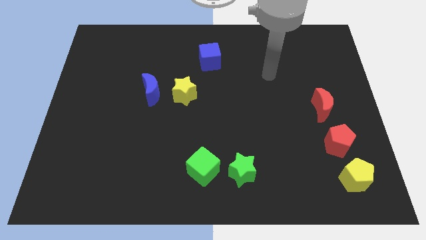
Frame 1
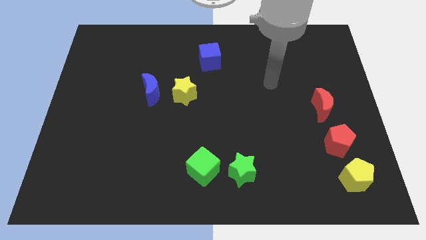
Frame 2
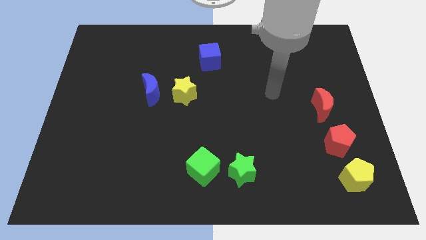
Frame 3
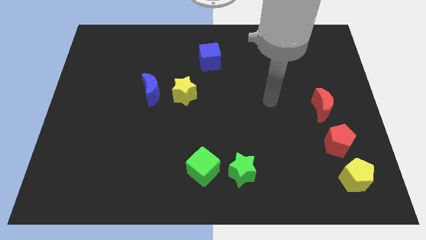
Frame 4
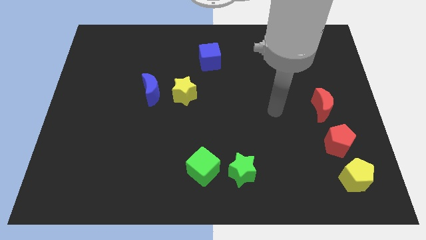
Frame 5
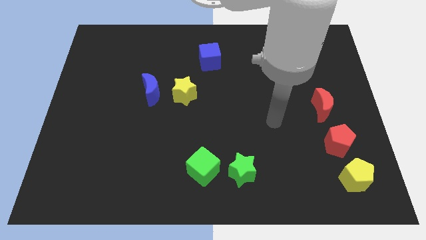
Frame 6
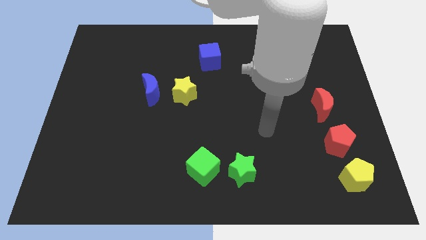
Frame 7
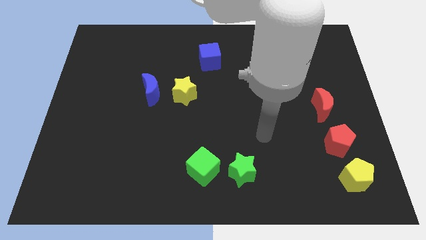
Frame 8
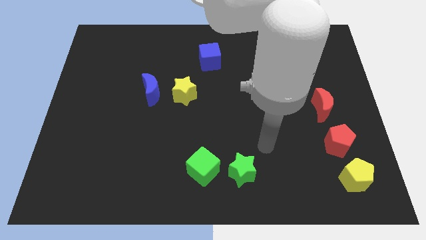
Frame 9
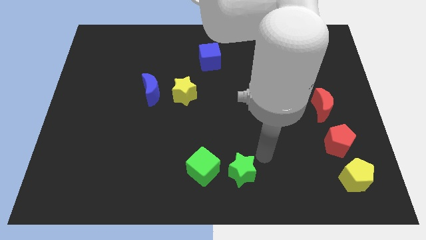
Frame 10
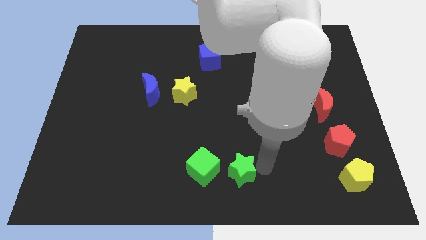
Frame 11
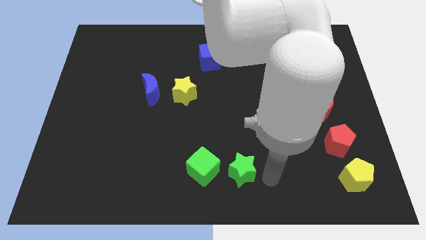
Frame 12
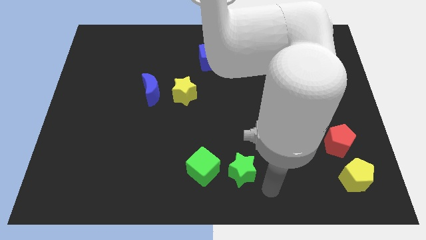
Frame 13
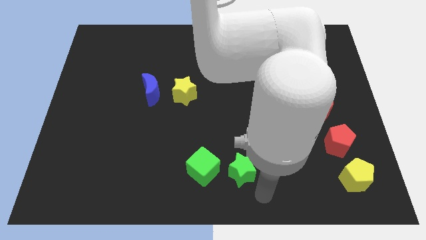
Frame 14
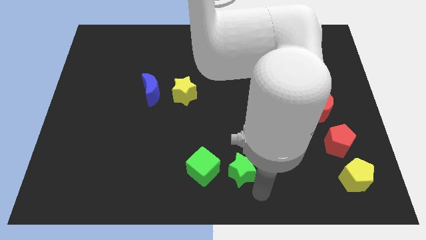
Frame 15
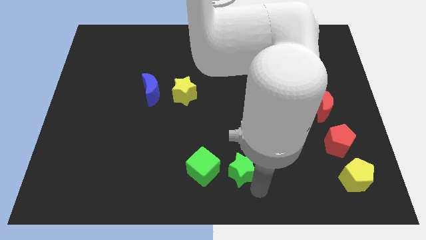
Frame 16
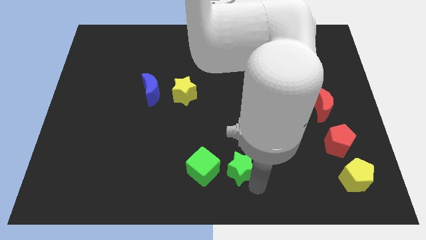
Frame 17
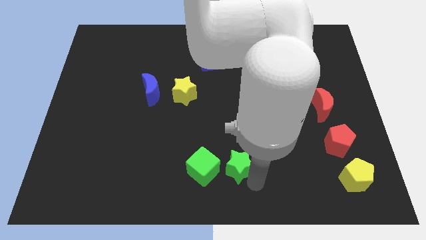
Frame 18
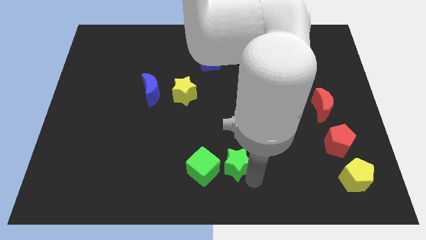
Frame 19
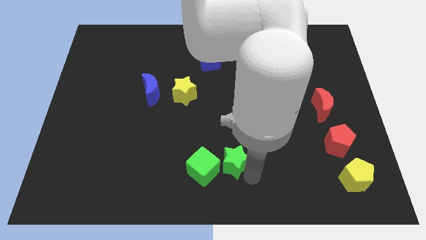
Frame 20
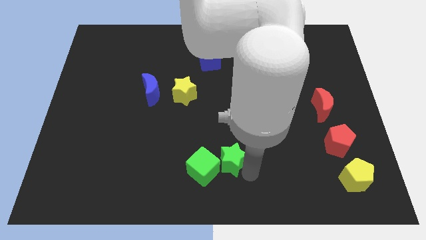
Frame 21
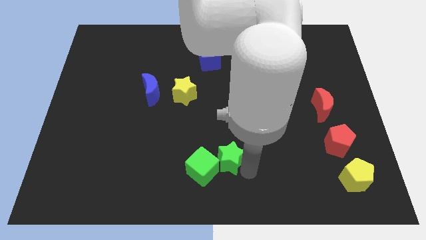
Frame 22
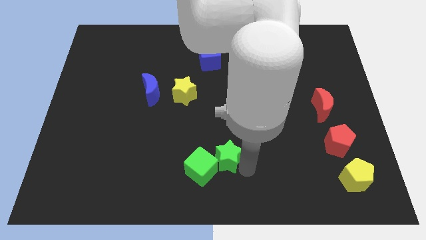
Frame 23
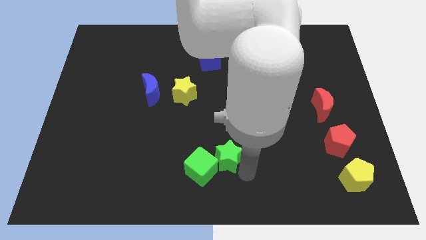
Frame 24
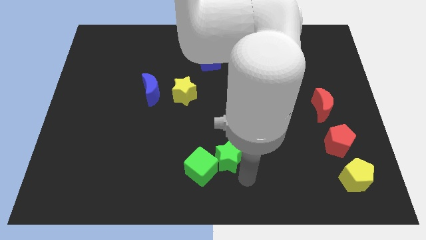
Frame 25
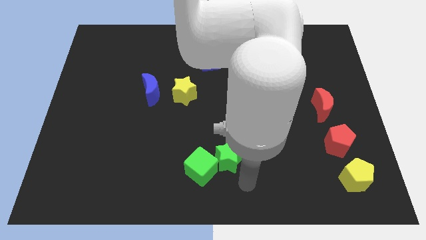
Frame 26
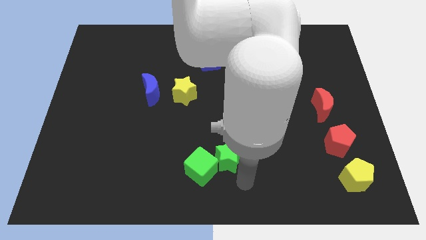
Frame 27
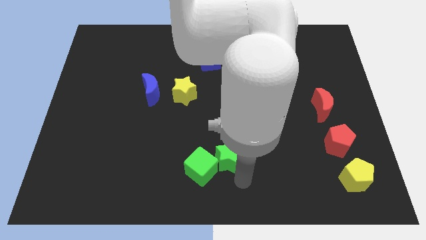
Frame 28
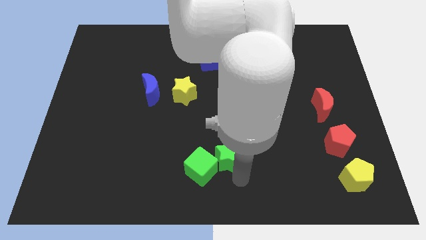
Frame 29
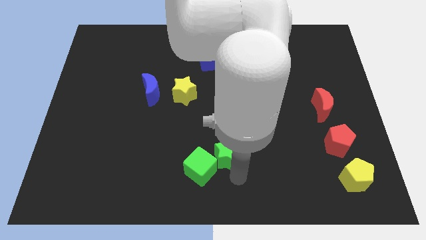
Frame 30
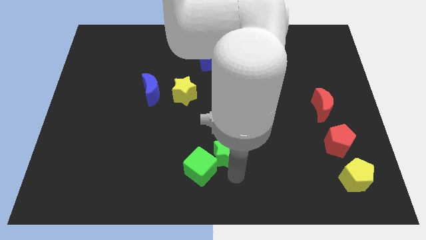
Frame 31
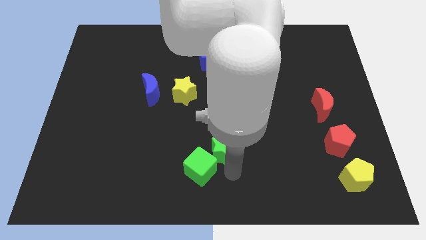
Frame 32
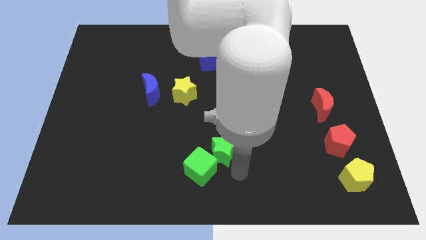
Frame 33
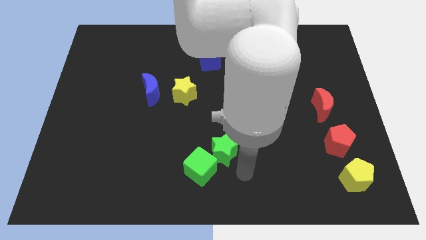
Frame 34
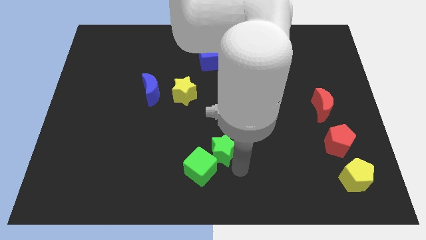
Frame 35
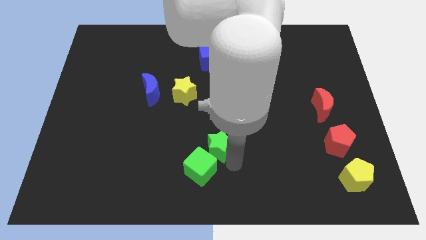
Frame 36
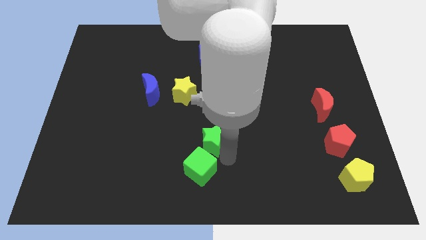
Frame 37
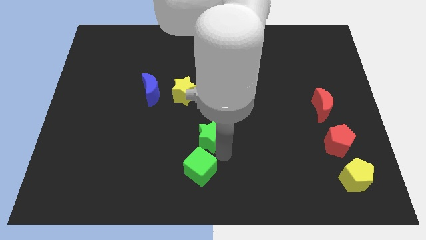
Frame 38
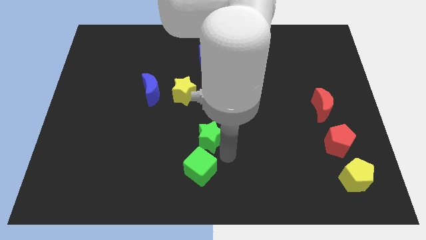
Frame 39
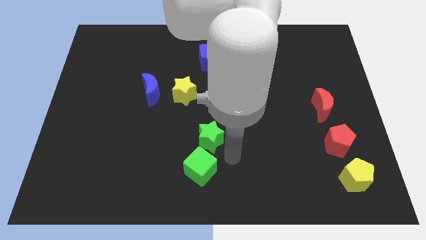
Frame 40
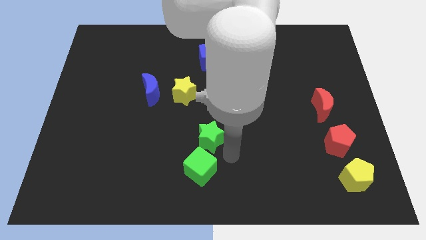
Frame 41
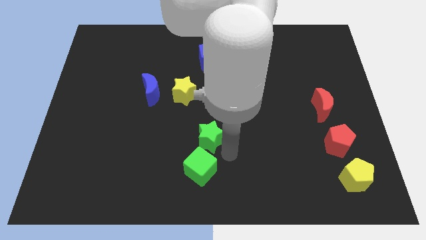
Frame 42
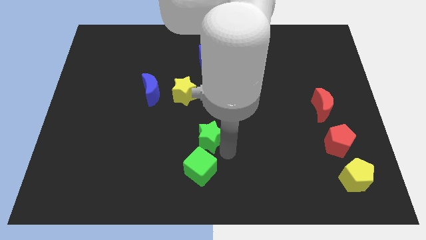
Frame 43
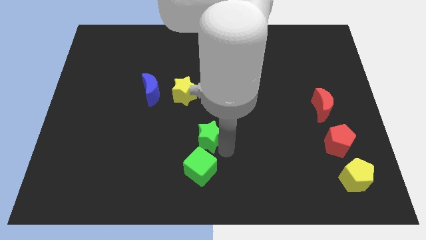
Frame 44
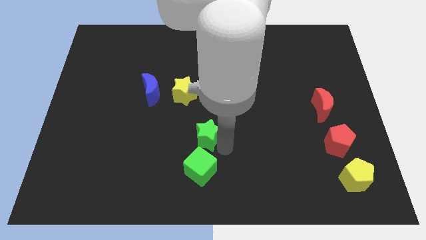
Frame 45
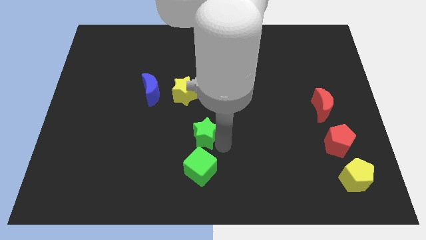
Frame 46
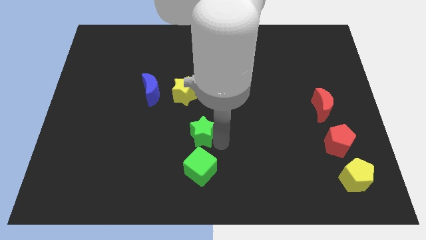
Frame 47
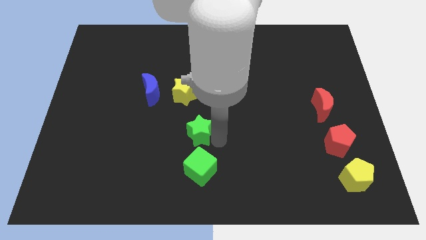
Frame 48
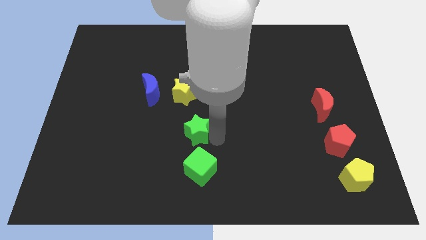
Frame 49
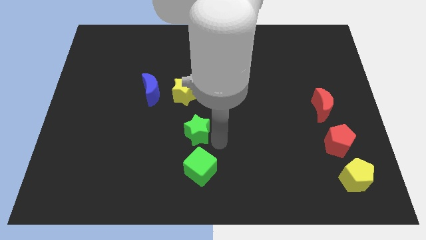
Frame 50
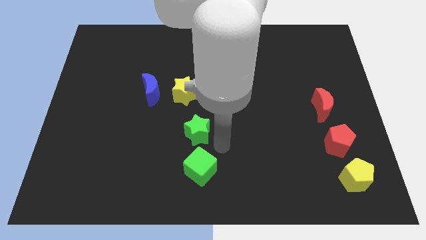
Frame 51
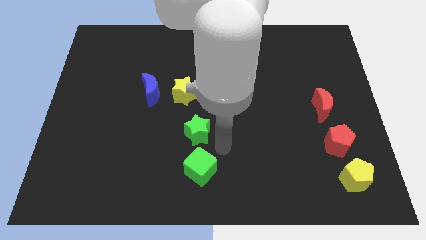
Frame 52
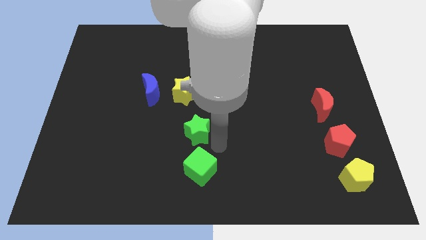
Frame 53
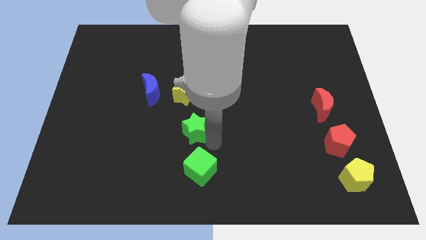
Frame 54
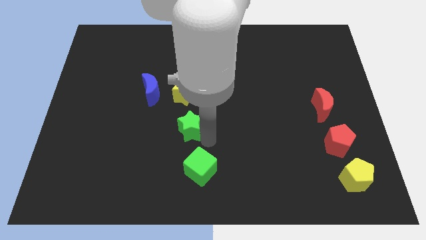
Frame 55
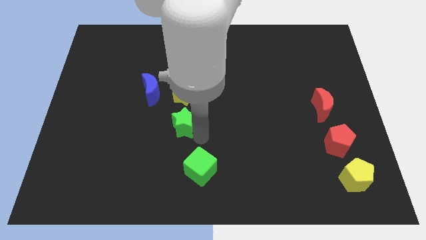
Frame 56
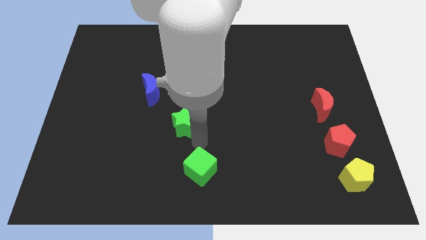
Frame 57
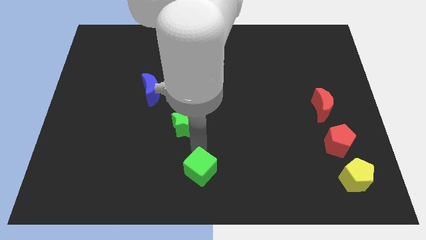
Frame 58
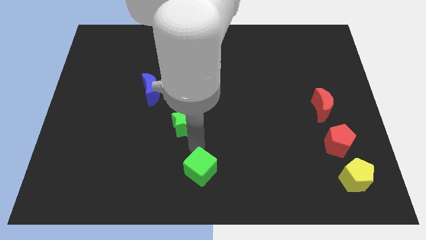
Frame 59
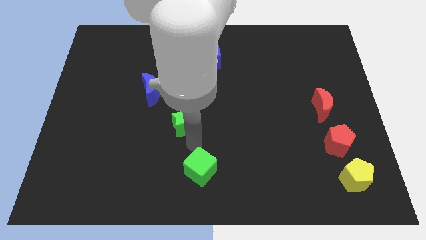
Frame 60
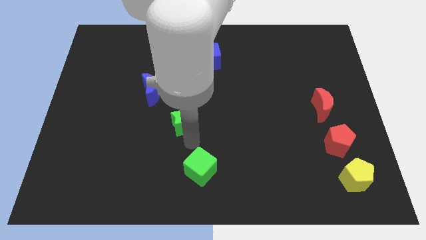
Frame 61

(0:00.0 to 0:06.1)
slide the green star diagonally down and to the right of the blue moon

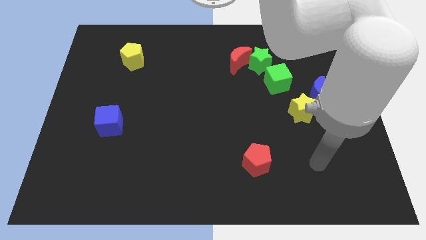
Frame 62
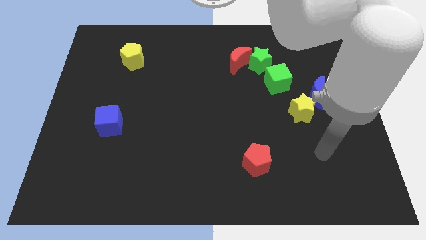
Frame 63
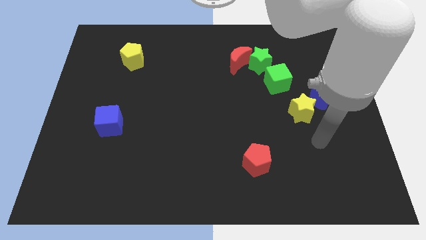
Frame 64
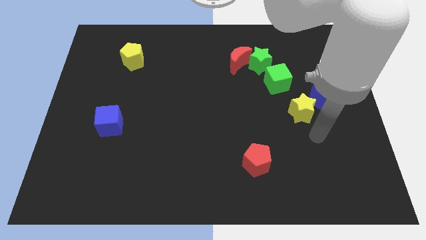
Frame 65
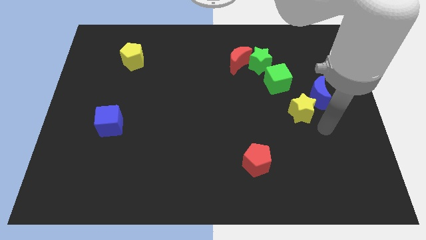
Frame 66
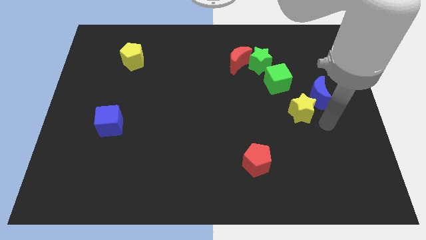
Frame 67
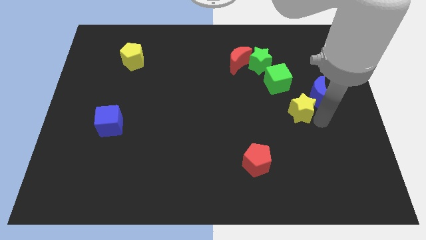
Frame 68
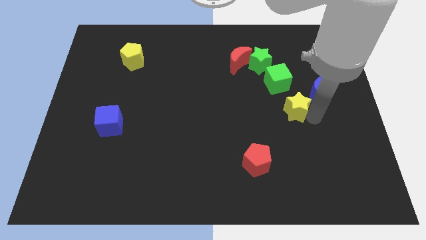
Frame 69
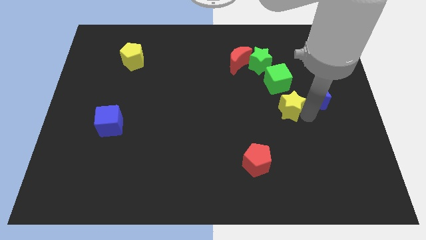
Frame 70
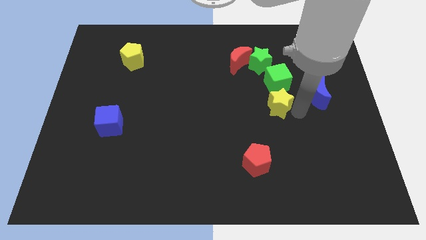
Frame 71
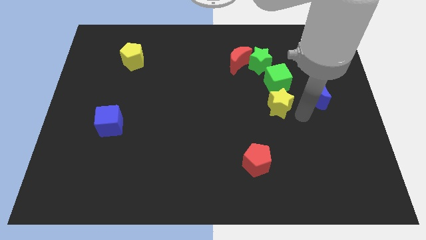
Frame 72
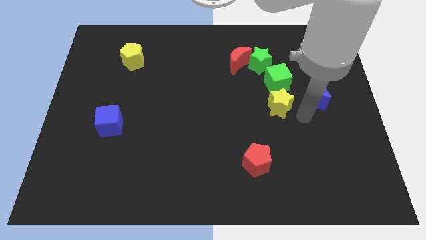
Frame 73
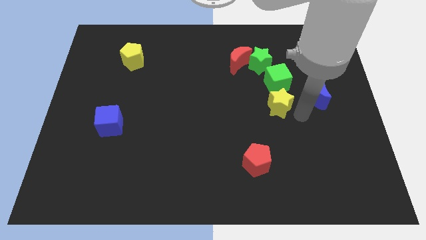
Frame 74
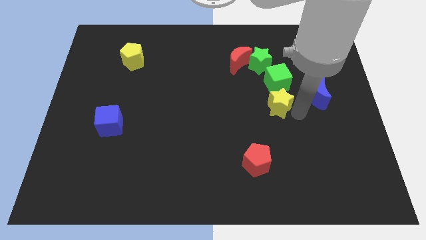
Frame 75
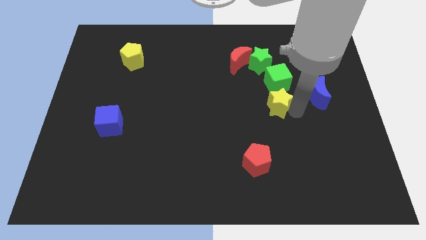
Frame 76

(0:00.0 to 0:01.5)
push the yellow star to the bottom left of the green cube
